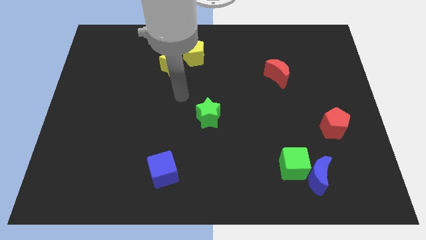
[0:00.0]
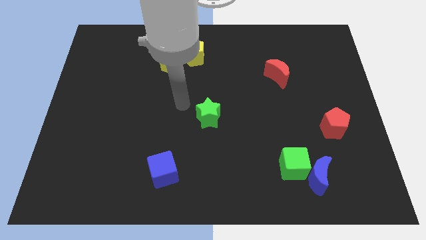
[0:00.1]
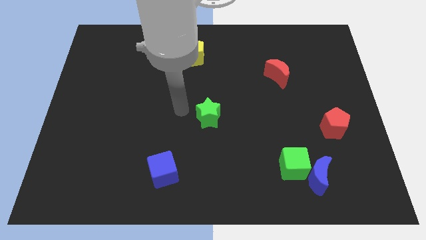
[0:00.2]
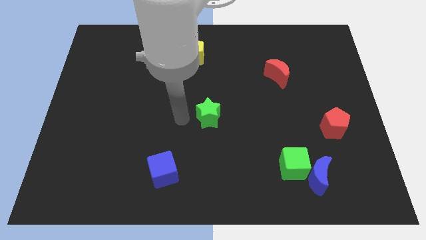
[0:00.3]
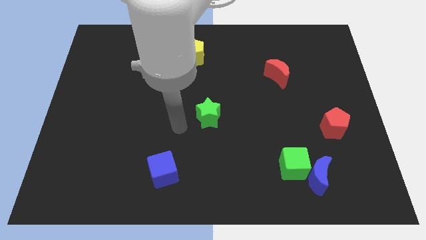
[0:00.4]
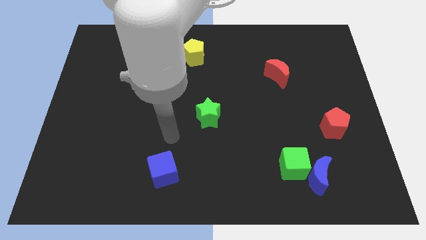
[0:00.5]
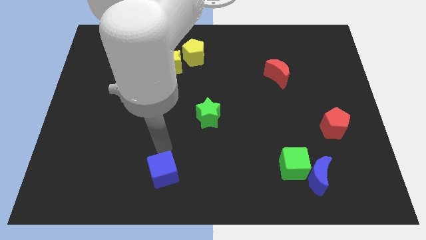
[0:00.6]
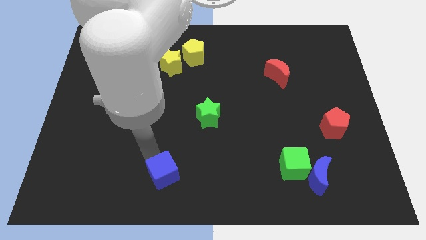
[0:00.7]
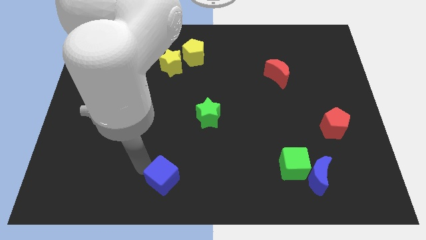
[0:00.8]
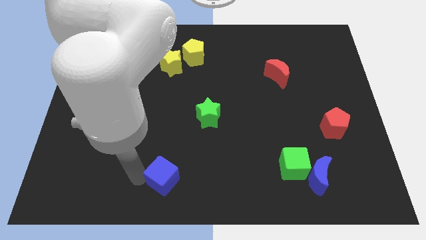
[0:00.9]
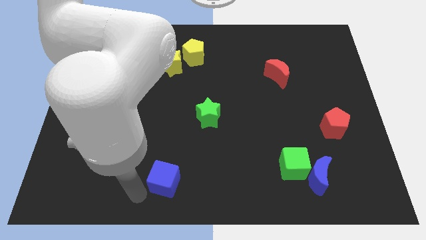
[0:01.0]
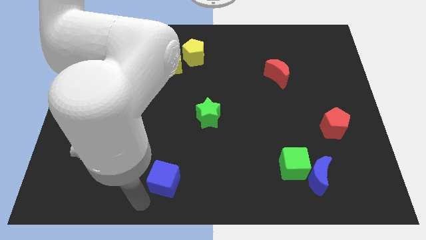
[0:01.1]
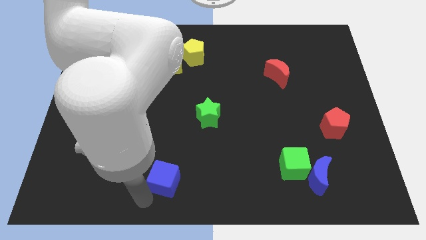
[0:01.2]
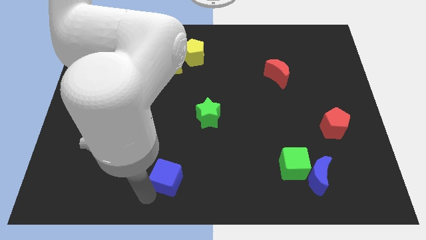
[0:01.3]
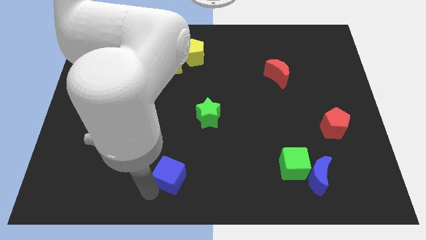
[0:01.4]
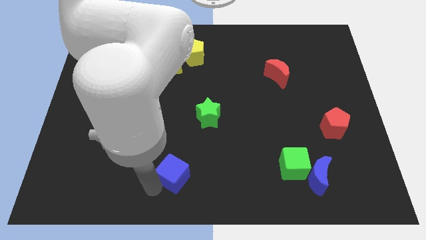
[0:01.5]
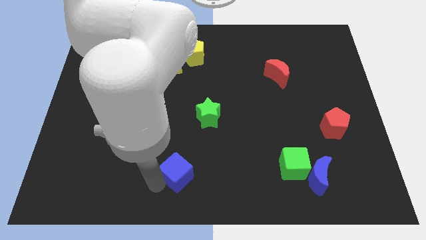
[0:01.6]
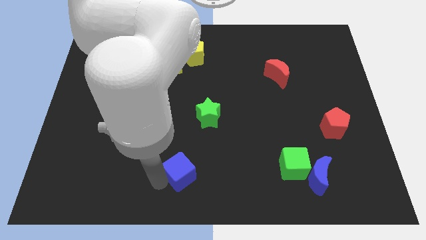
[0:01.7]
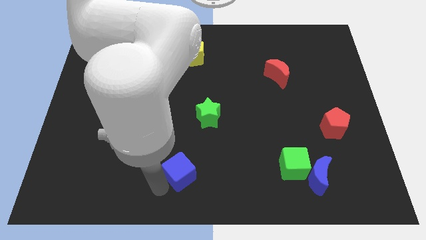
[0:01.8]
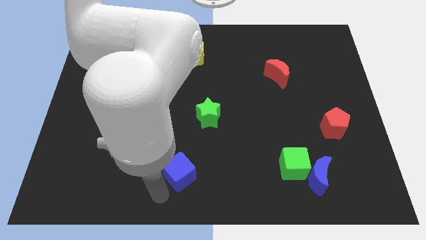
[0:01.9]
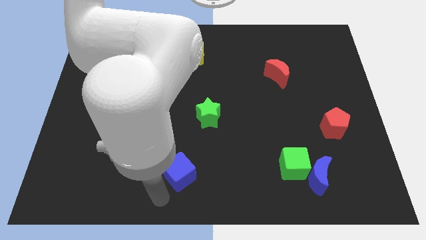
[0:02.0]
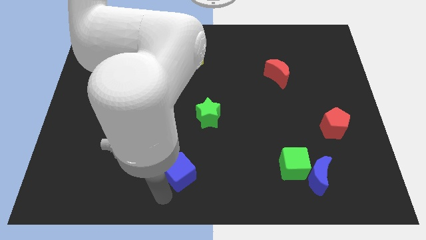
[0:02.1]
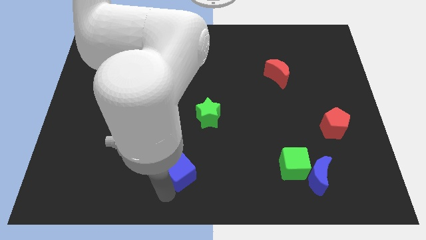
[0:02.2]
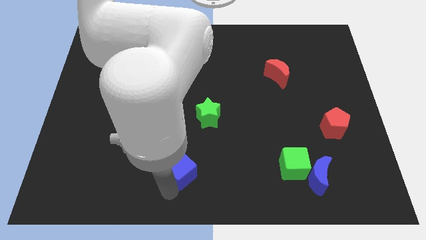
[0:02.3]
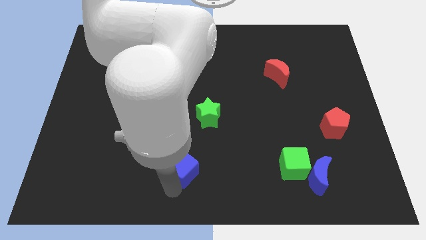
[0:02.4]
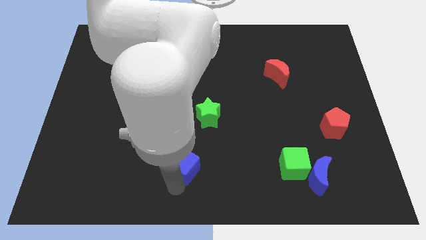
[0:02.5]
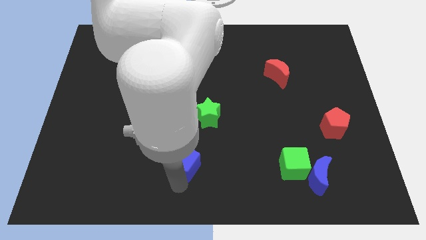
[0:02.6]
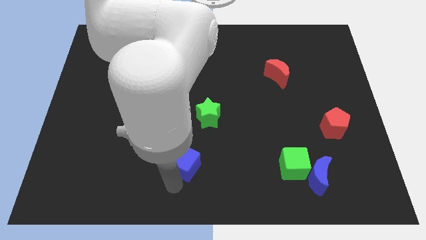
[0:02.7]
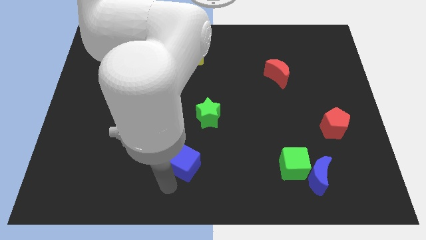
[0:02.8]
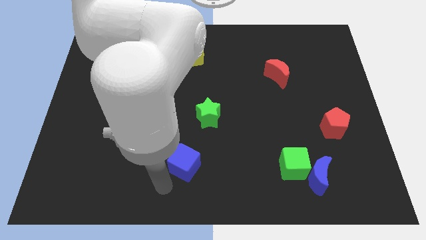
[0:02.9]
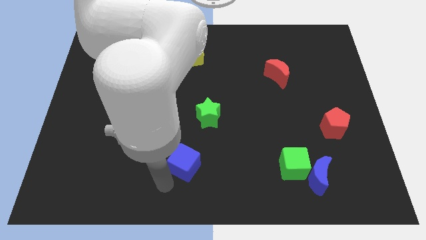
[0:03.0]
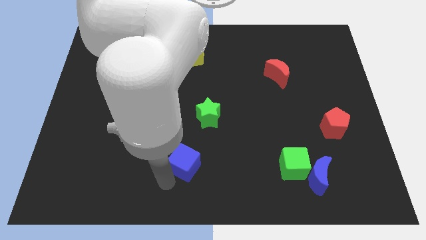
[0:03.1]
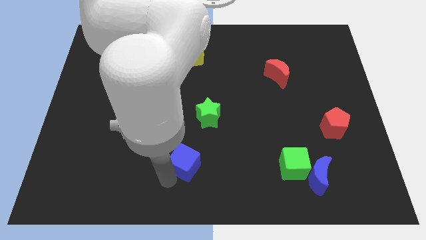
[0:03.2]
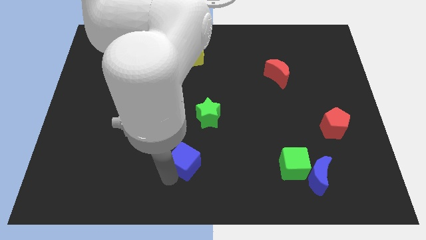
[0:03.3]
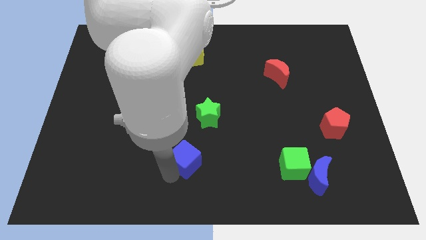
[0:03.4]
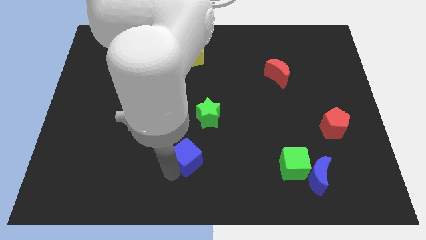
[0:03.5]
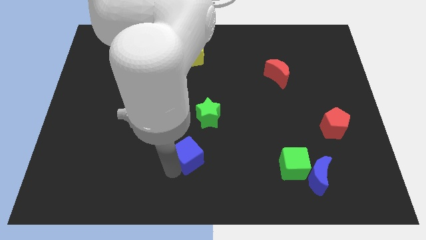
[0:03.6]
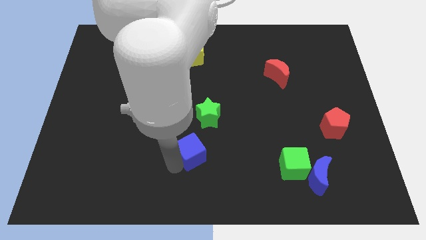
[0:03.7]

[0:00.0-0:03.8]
move the blue cube a little diagonally upwards and right

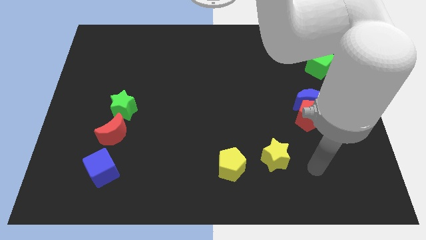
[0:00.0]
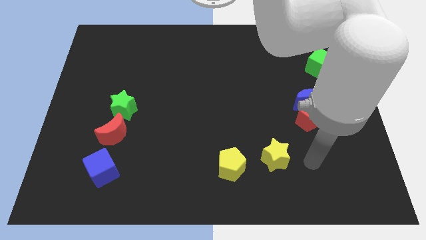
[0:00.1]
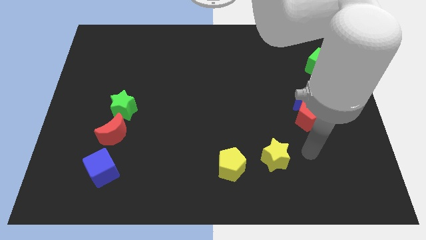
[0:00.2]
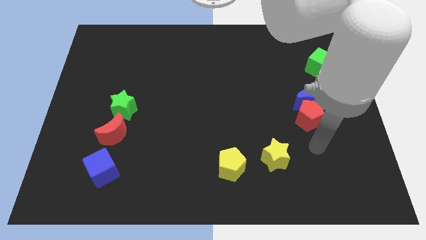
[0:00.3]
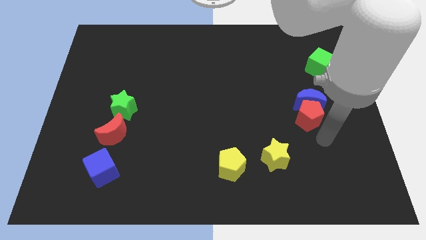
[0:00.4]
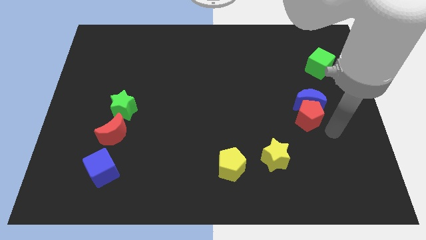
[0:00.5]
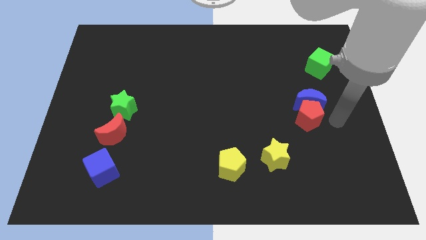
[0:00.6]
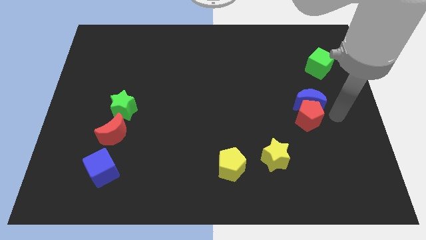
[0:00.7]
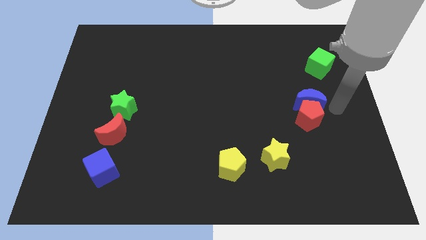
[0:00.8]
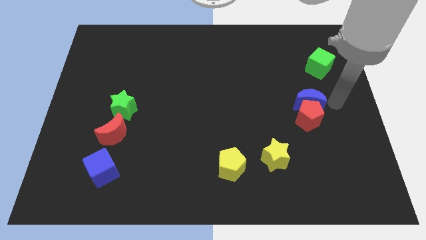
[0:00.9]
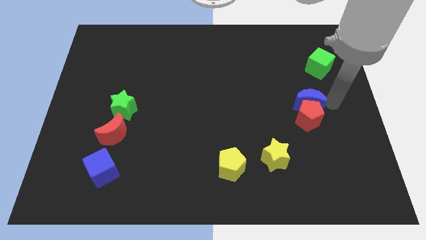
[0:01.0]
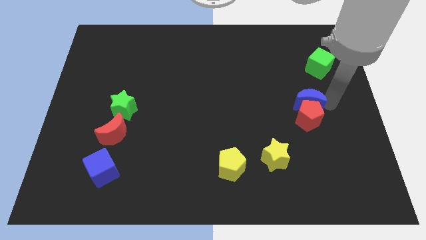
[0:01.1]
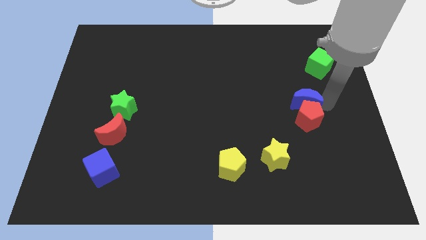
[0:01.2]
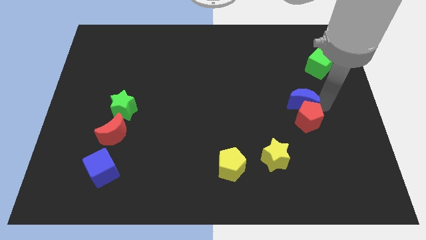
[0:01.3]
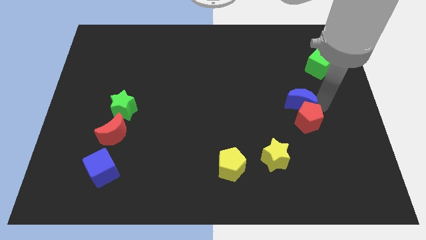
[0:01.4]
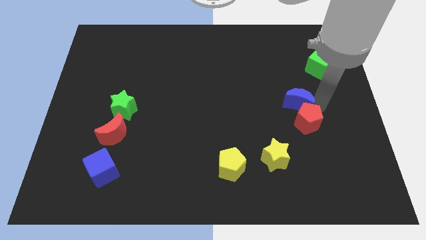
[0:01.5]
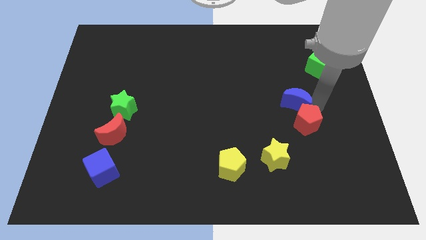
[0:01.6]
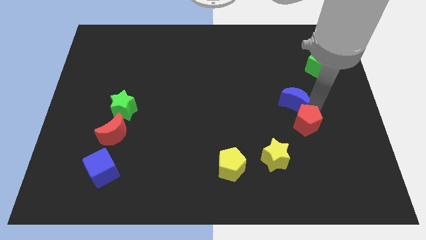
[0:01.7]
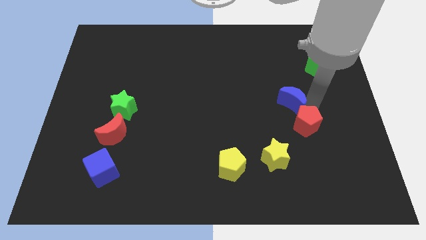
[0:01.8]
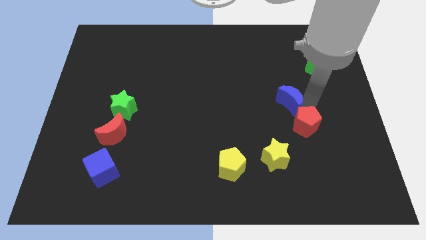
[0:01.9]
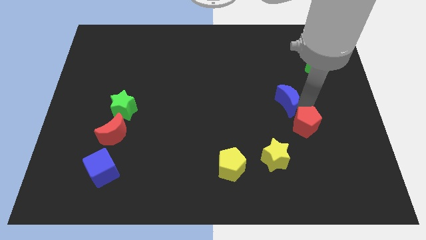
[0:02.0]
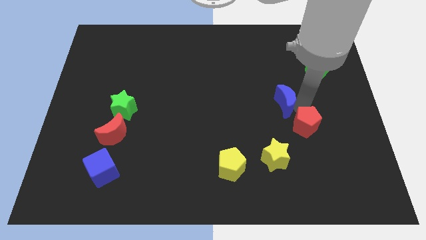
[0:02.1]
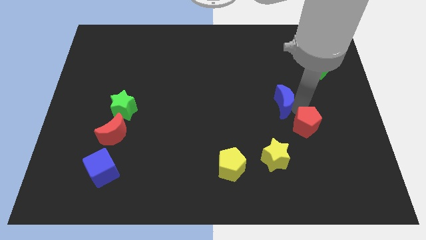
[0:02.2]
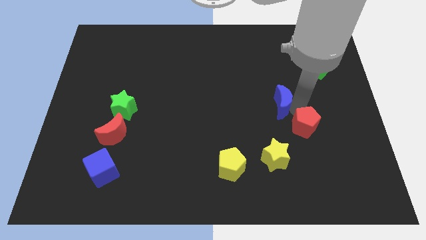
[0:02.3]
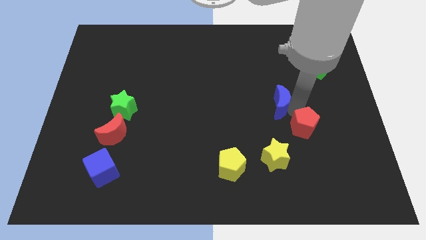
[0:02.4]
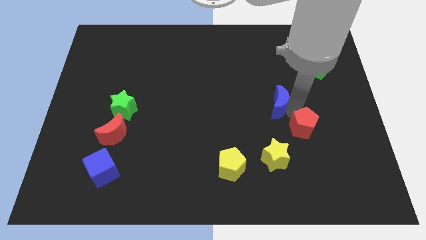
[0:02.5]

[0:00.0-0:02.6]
slightly move the blue moon to the left

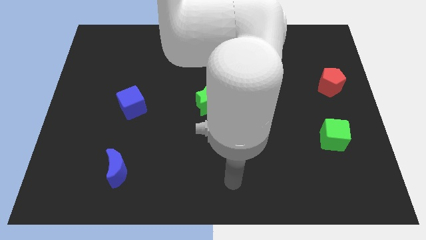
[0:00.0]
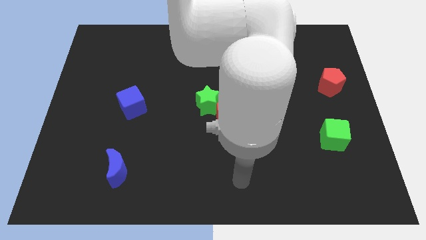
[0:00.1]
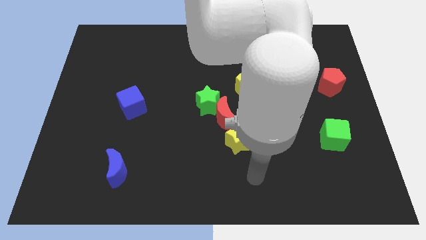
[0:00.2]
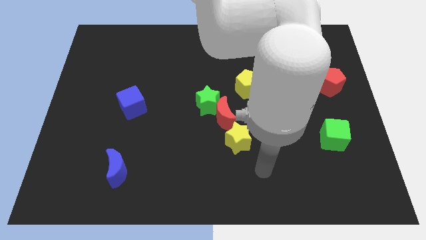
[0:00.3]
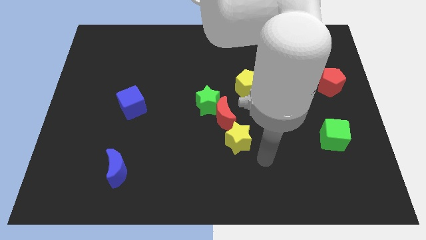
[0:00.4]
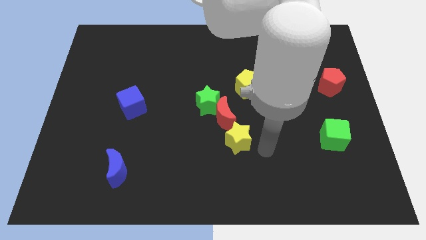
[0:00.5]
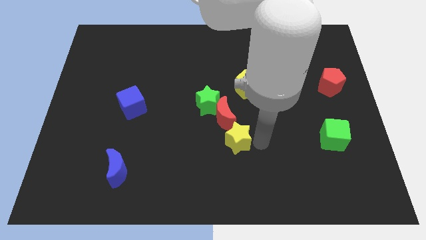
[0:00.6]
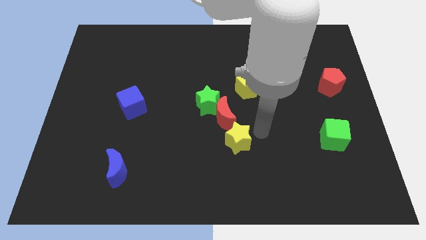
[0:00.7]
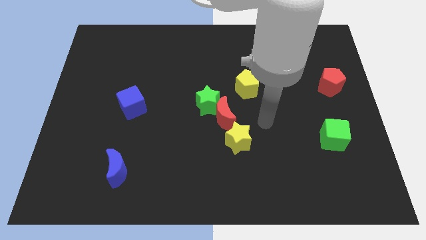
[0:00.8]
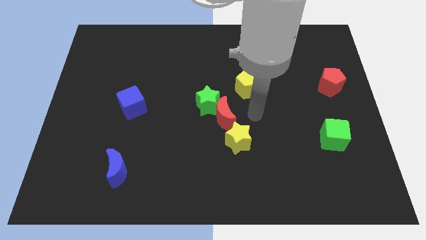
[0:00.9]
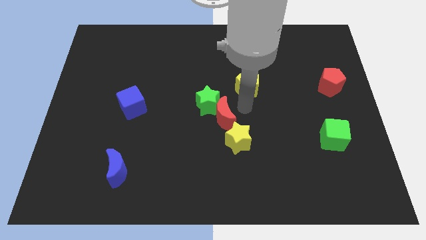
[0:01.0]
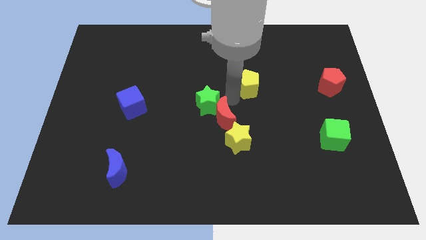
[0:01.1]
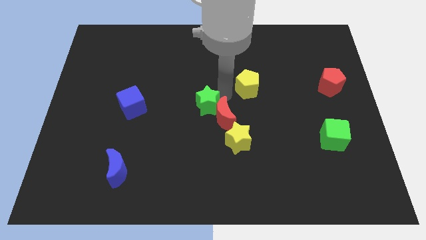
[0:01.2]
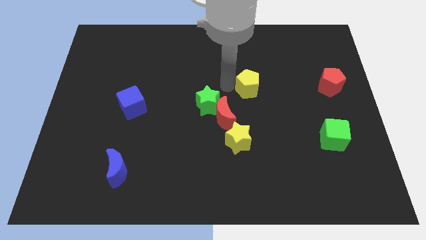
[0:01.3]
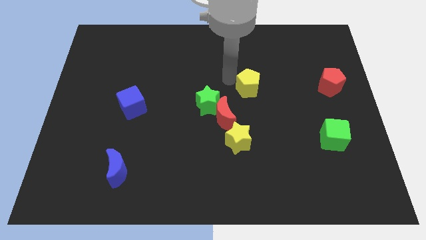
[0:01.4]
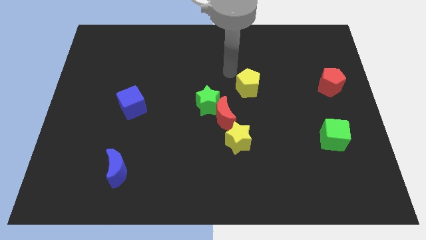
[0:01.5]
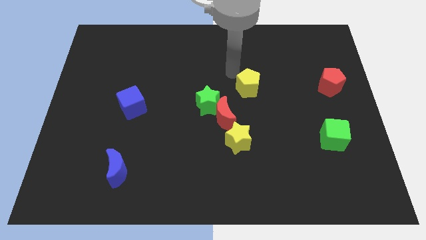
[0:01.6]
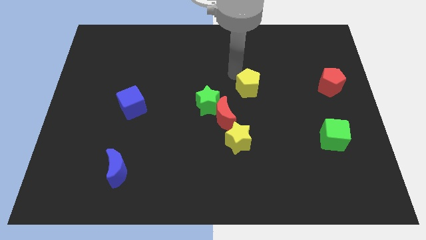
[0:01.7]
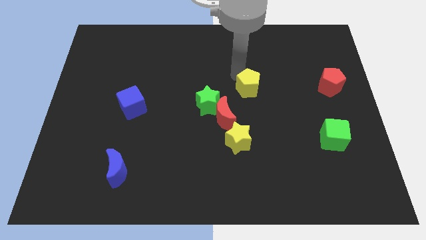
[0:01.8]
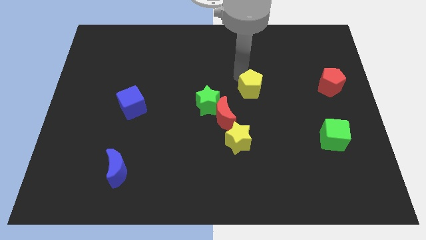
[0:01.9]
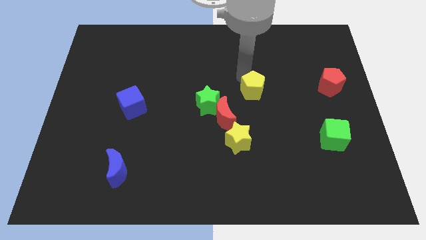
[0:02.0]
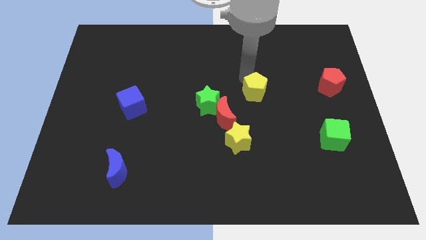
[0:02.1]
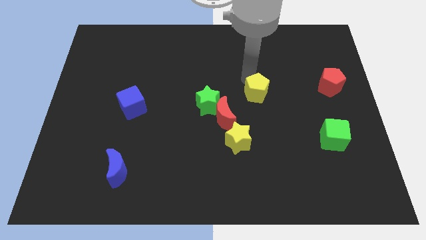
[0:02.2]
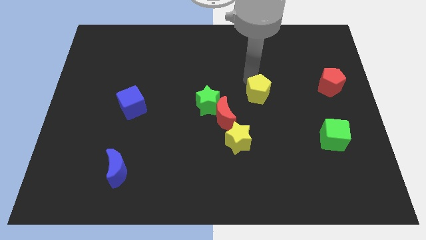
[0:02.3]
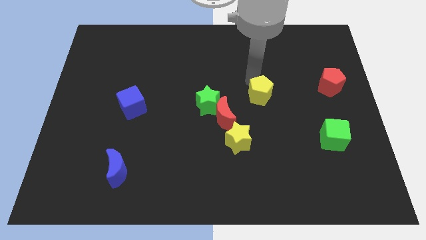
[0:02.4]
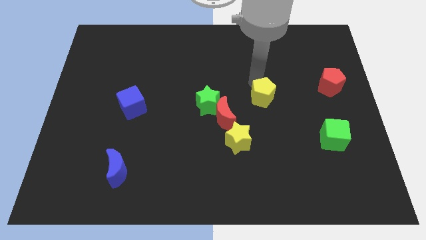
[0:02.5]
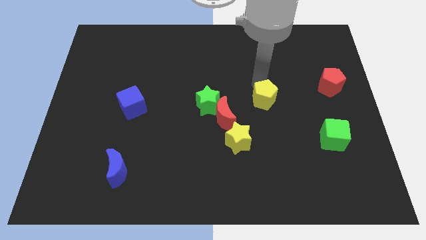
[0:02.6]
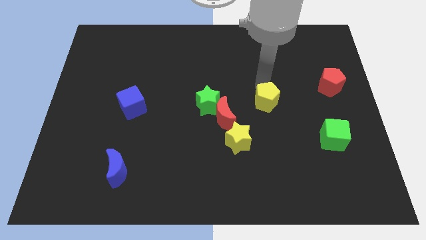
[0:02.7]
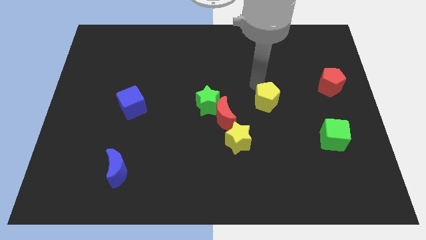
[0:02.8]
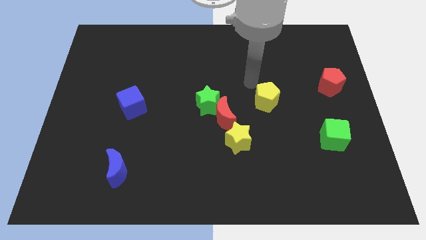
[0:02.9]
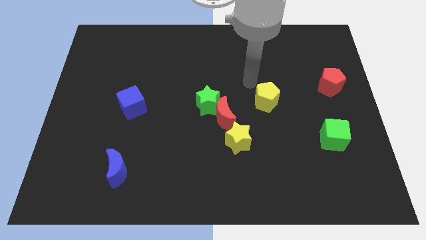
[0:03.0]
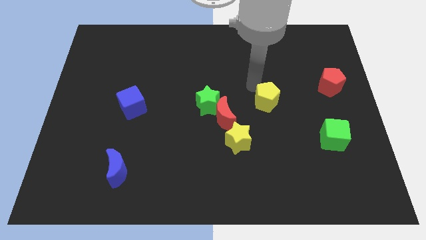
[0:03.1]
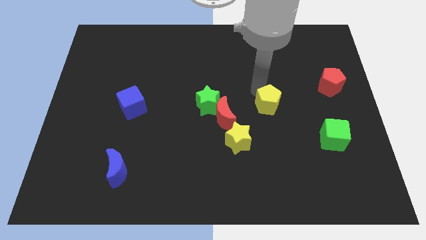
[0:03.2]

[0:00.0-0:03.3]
move the yellow pentagon somewhat diagonally down and right
